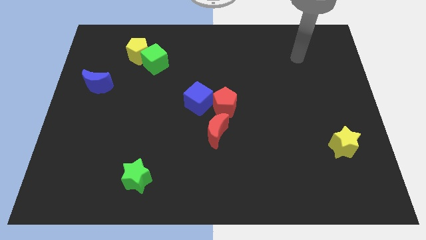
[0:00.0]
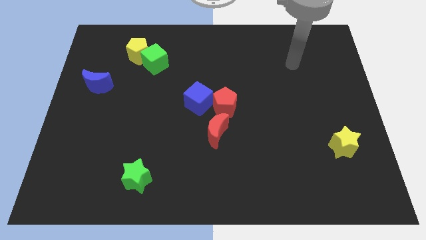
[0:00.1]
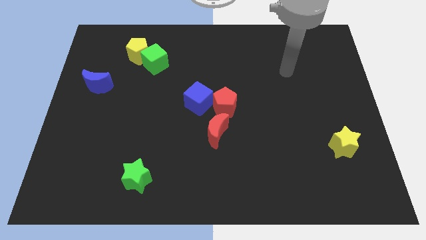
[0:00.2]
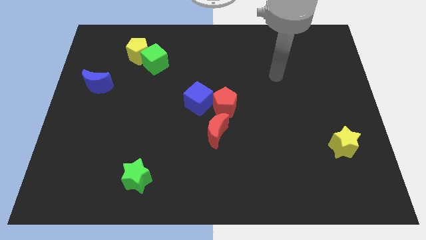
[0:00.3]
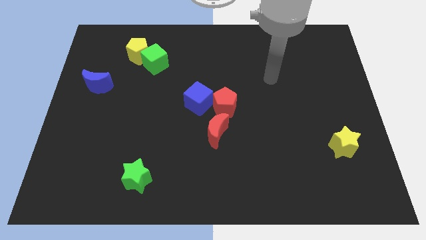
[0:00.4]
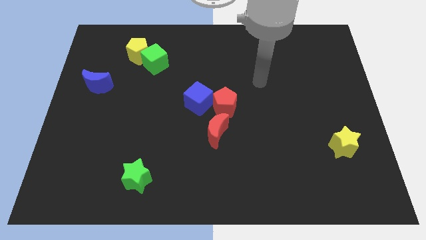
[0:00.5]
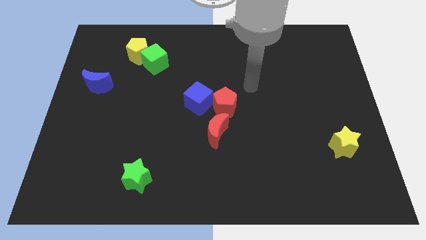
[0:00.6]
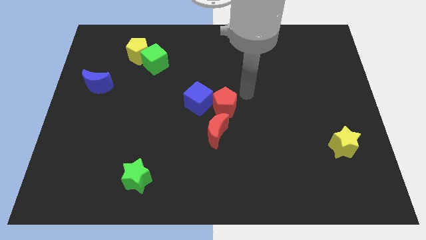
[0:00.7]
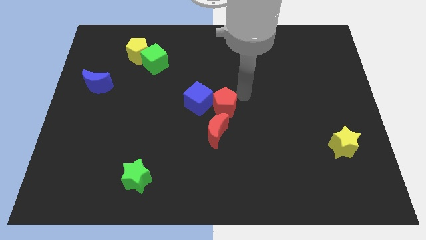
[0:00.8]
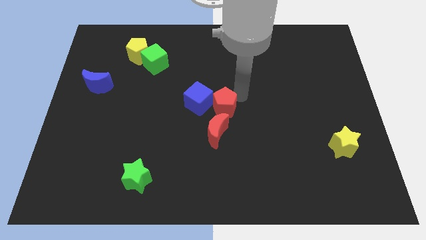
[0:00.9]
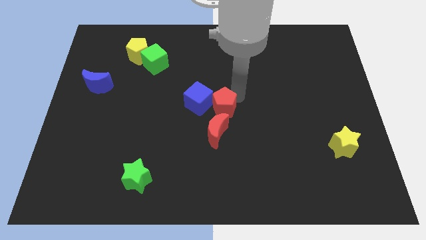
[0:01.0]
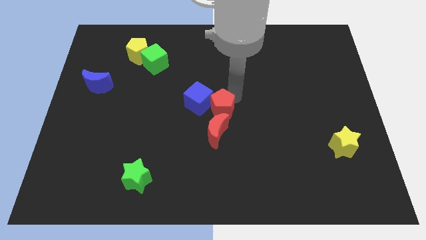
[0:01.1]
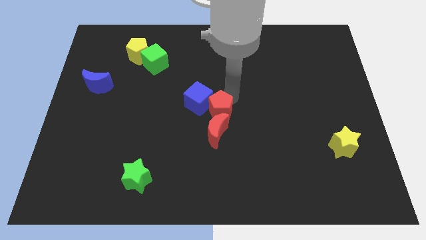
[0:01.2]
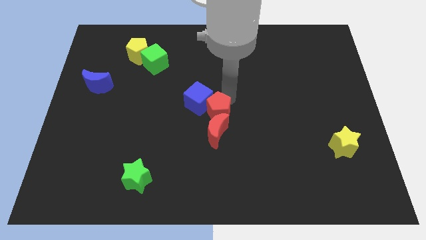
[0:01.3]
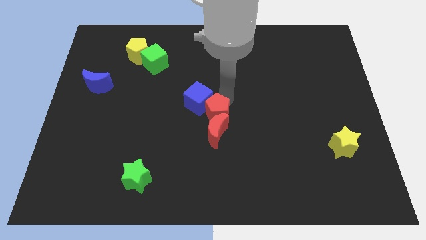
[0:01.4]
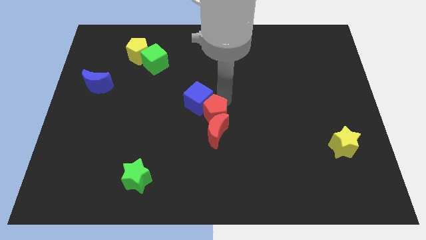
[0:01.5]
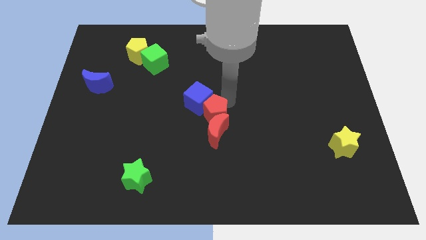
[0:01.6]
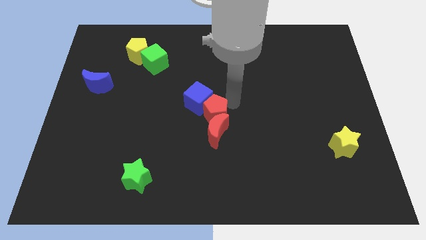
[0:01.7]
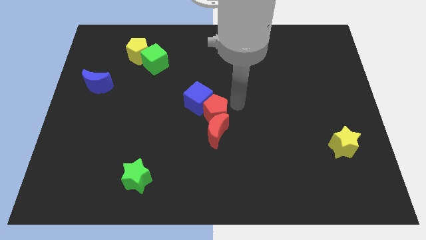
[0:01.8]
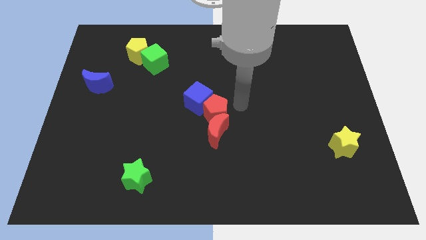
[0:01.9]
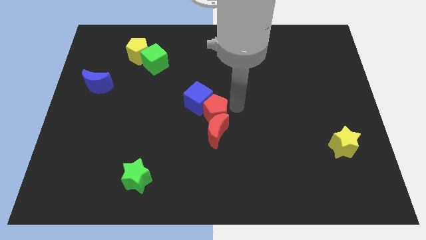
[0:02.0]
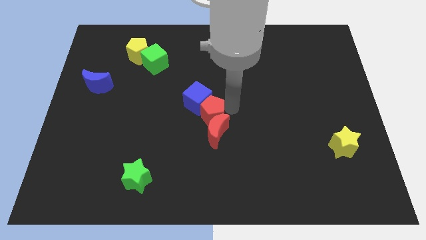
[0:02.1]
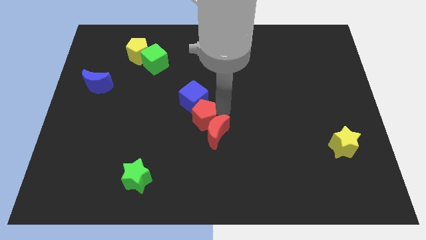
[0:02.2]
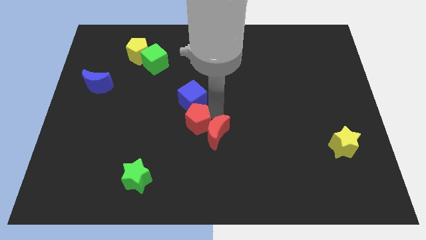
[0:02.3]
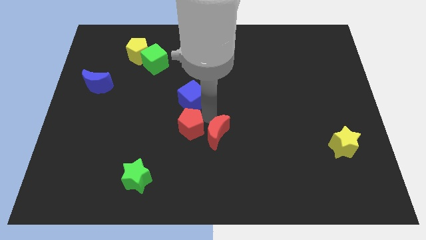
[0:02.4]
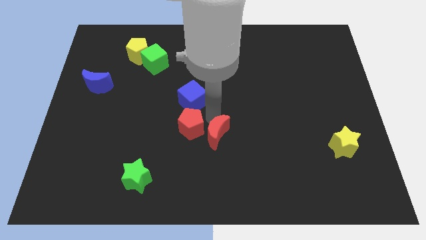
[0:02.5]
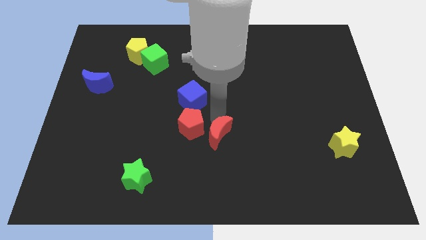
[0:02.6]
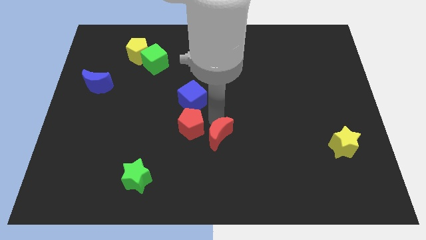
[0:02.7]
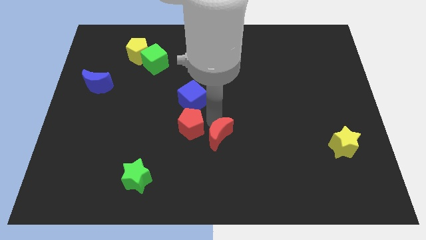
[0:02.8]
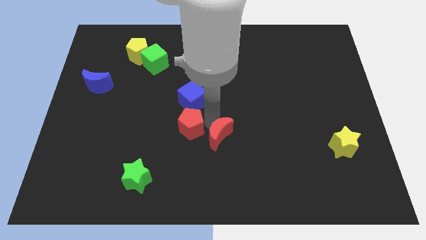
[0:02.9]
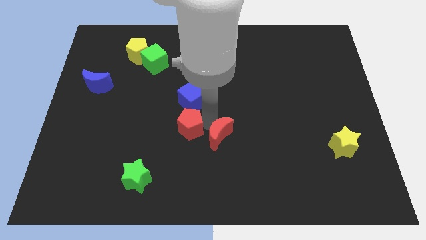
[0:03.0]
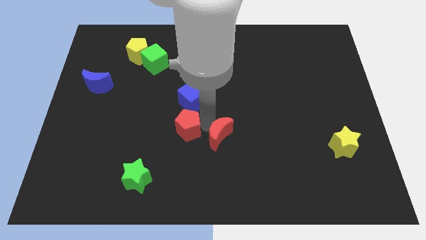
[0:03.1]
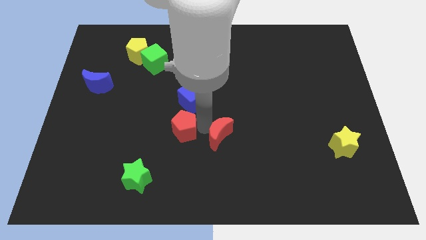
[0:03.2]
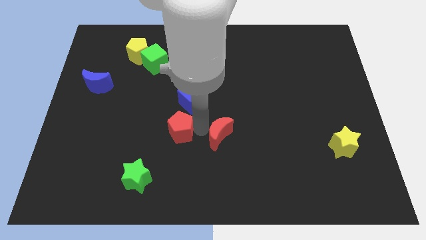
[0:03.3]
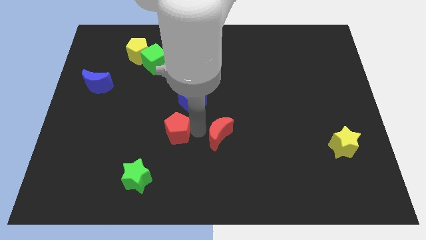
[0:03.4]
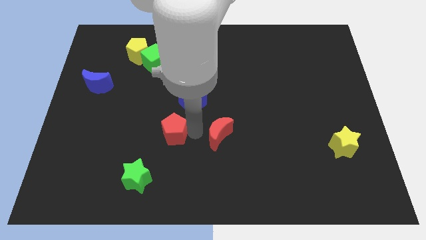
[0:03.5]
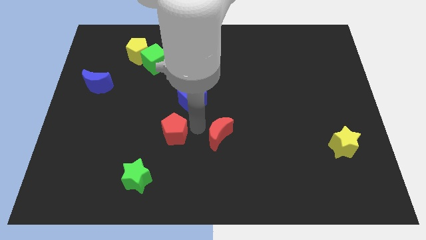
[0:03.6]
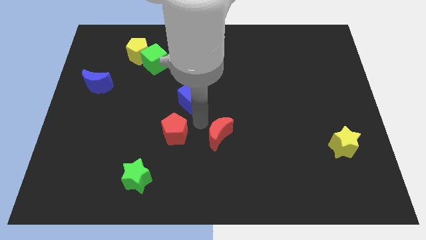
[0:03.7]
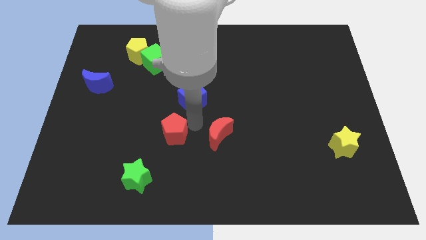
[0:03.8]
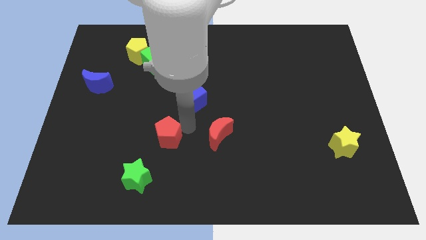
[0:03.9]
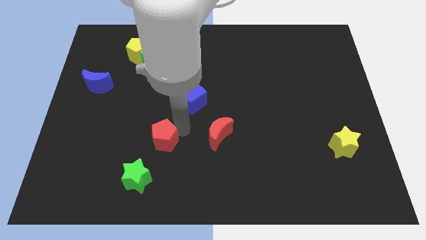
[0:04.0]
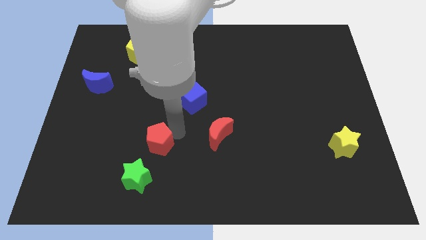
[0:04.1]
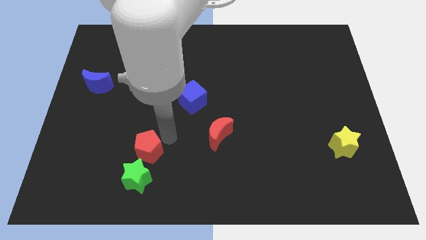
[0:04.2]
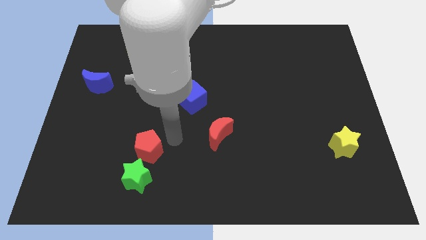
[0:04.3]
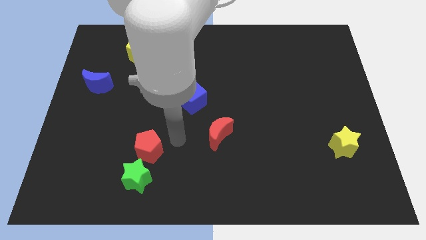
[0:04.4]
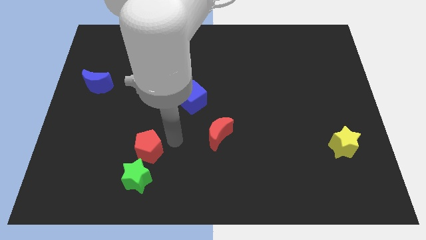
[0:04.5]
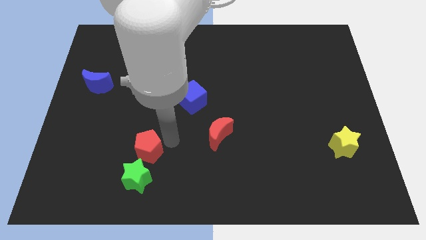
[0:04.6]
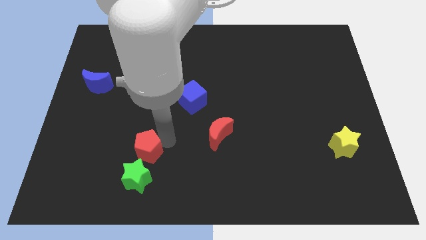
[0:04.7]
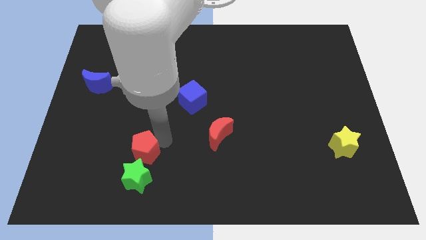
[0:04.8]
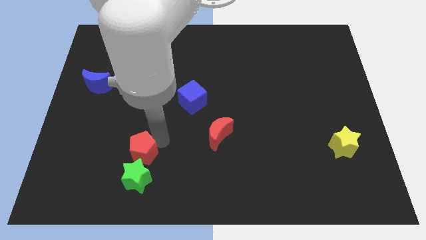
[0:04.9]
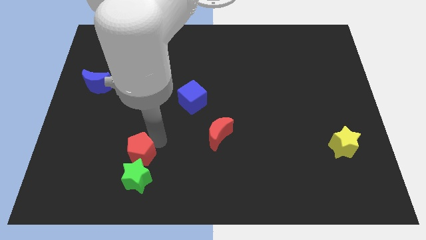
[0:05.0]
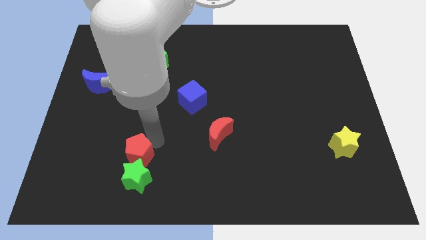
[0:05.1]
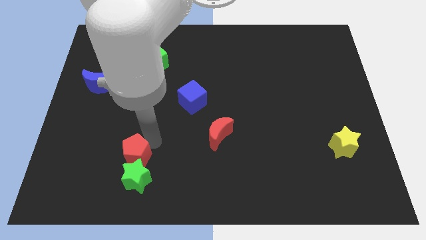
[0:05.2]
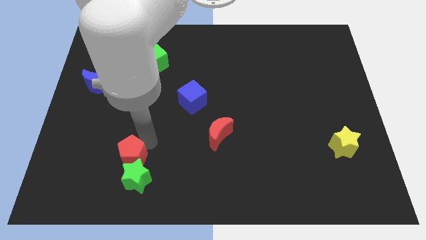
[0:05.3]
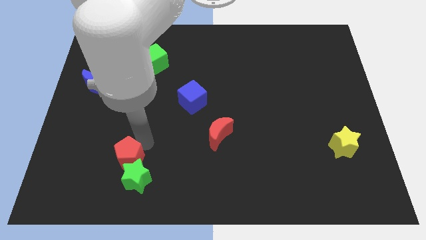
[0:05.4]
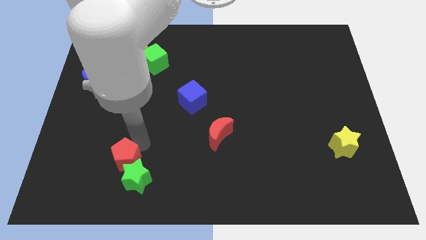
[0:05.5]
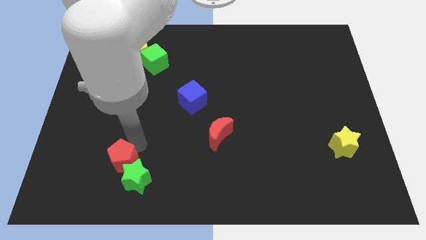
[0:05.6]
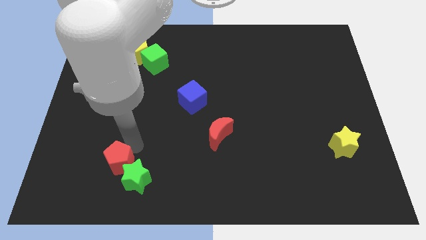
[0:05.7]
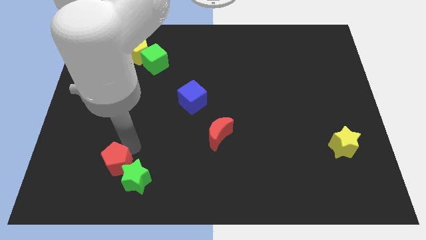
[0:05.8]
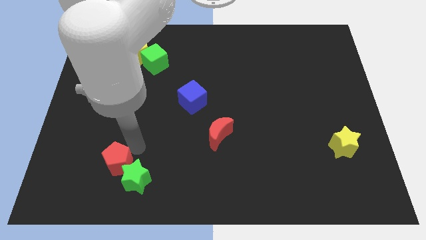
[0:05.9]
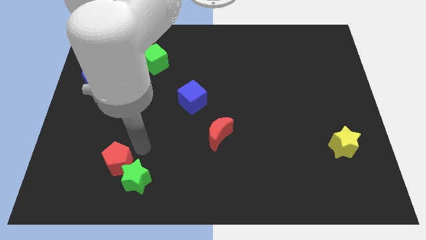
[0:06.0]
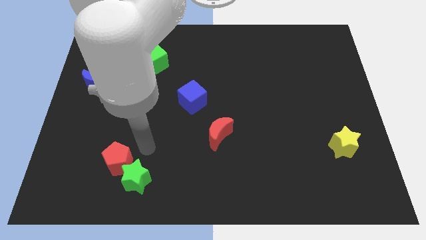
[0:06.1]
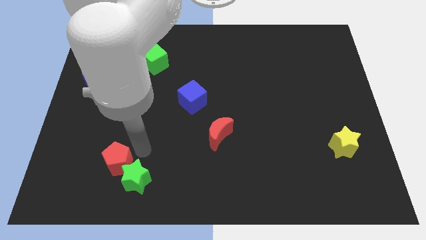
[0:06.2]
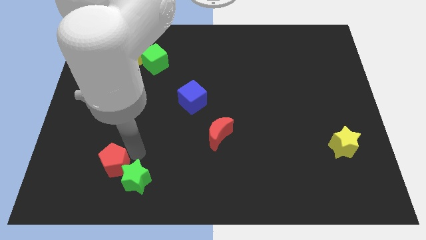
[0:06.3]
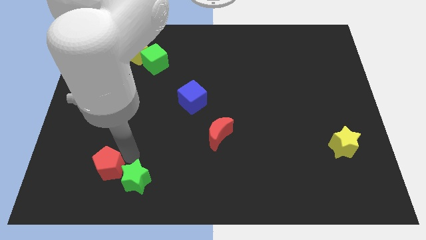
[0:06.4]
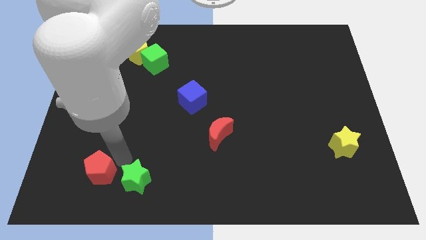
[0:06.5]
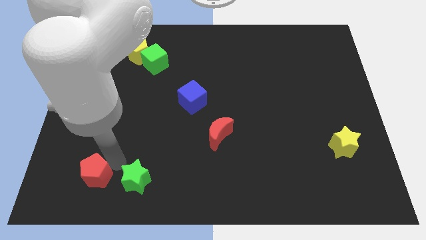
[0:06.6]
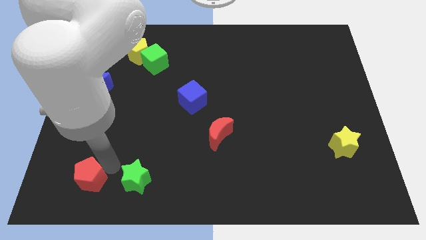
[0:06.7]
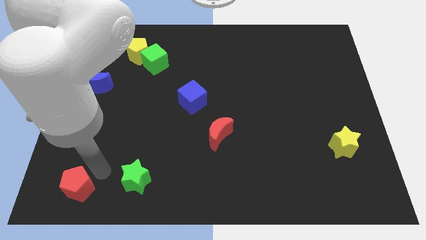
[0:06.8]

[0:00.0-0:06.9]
move the red pentagon to the bottom left

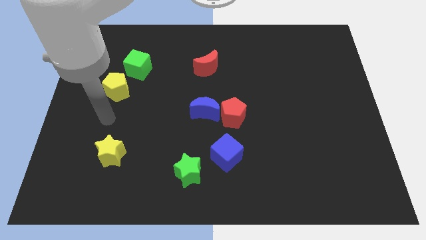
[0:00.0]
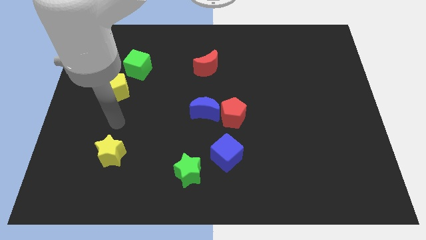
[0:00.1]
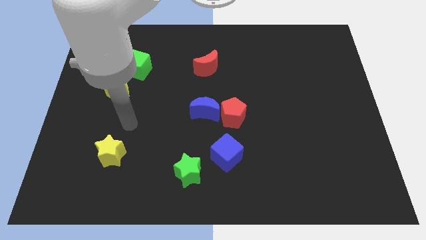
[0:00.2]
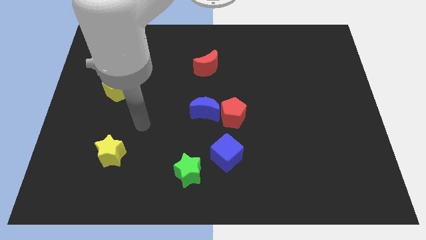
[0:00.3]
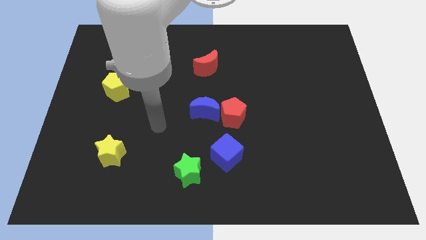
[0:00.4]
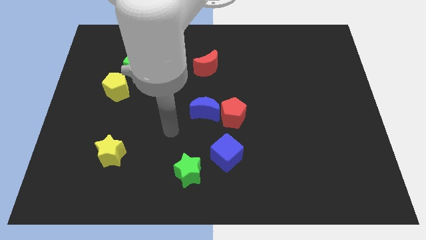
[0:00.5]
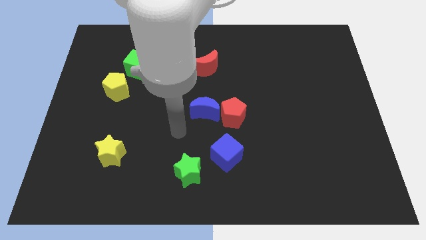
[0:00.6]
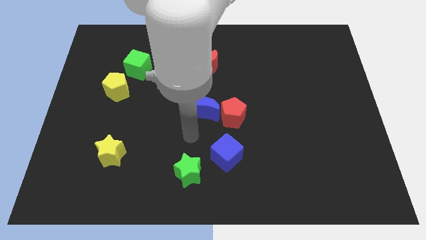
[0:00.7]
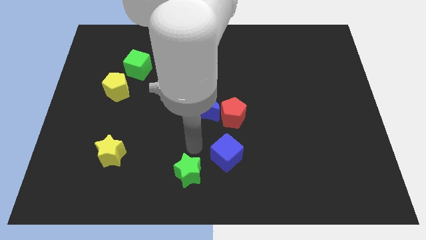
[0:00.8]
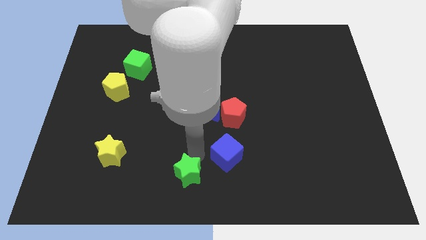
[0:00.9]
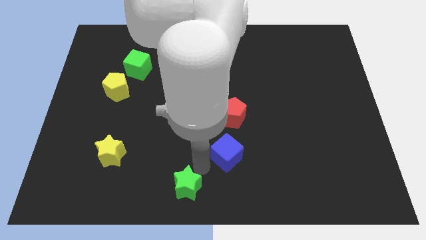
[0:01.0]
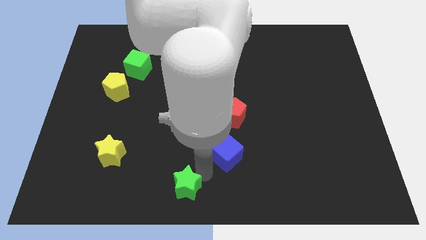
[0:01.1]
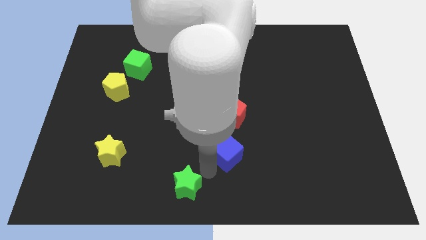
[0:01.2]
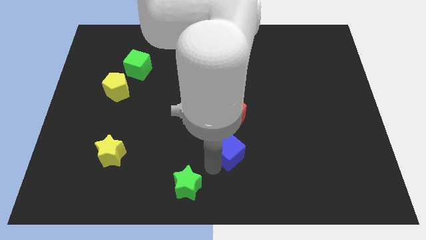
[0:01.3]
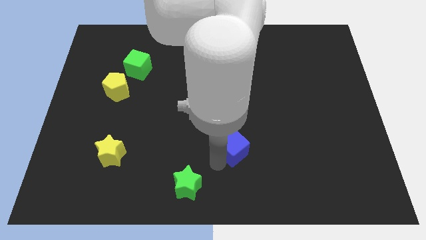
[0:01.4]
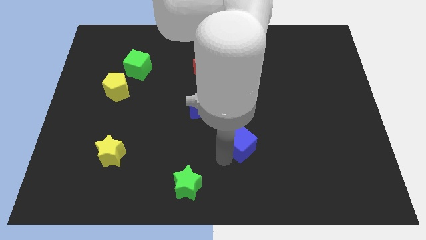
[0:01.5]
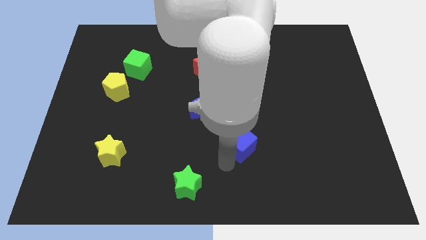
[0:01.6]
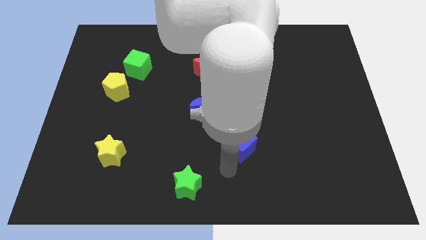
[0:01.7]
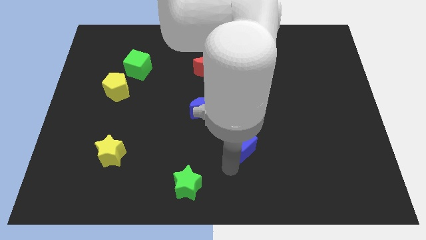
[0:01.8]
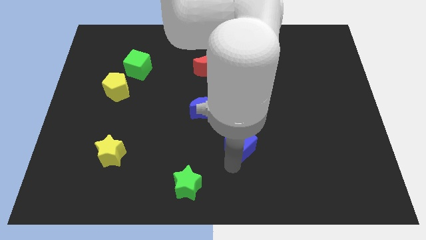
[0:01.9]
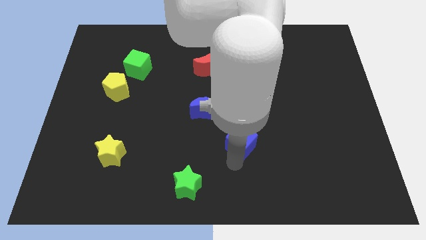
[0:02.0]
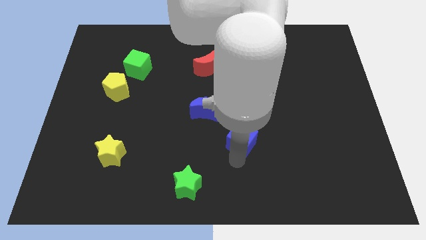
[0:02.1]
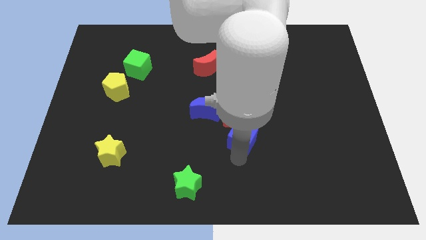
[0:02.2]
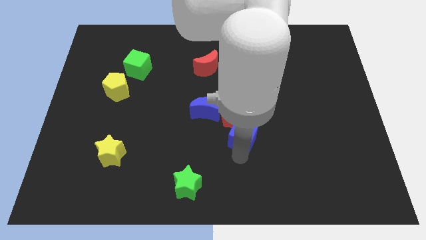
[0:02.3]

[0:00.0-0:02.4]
put the blue cube to the center of the board
